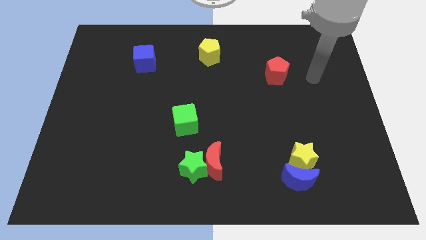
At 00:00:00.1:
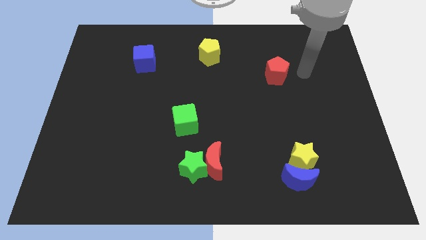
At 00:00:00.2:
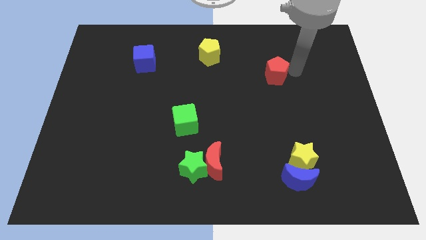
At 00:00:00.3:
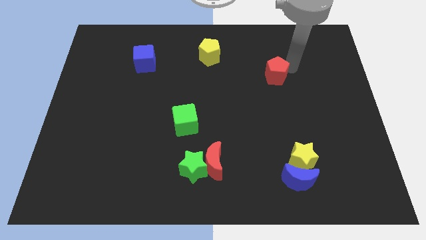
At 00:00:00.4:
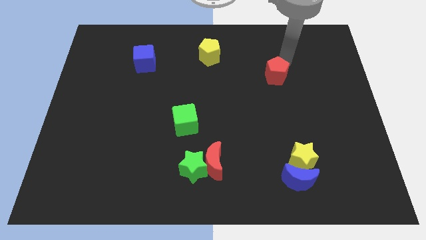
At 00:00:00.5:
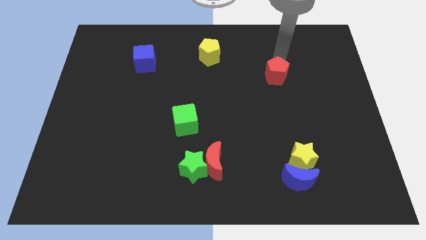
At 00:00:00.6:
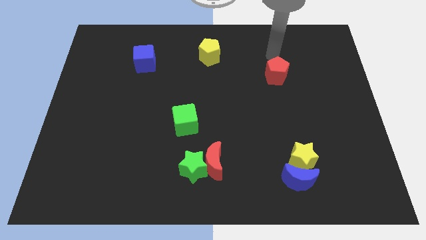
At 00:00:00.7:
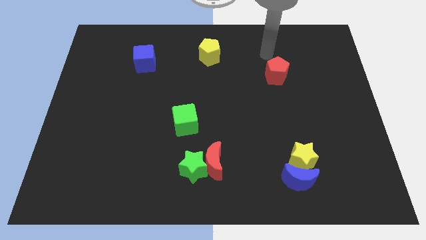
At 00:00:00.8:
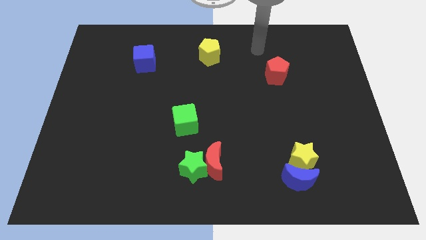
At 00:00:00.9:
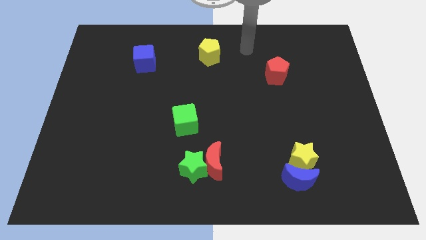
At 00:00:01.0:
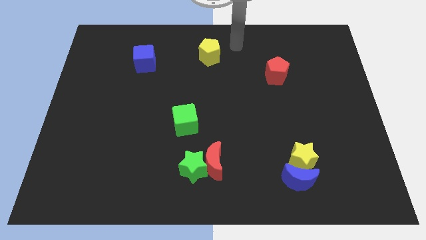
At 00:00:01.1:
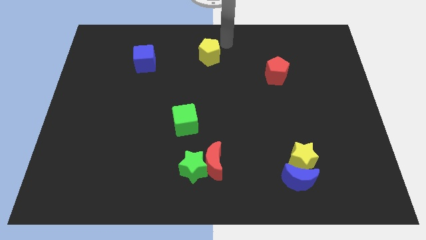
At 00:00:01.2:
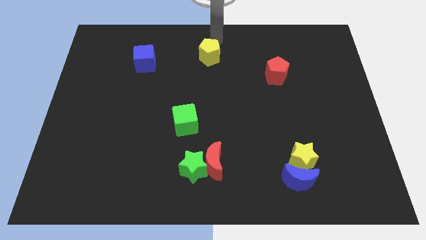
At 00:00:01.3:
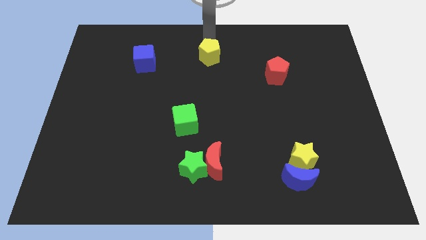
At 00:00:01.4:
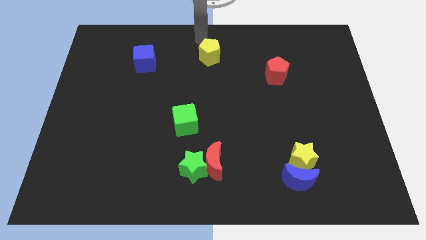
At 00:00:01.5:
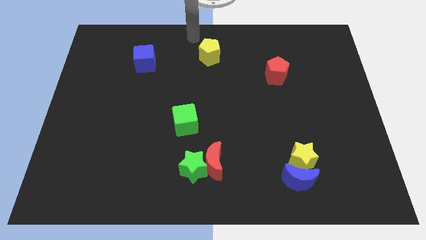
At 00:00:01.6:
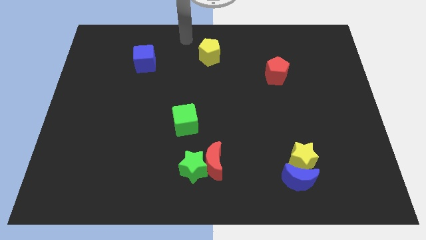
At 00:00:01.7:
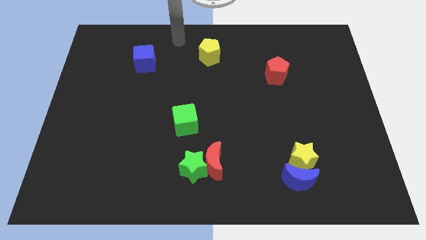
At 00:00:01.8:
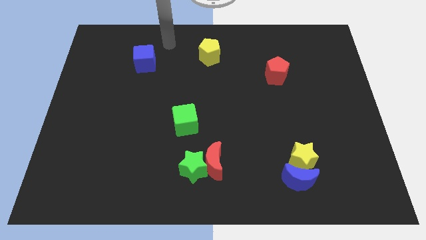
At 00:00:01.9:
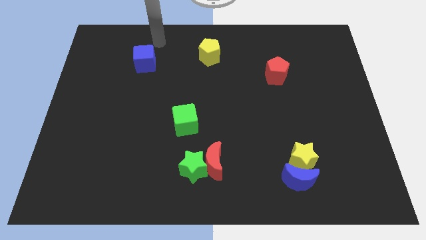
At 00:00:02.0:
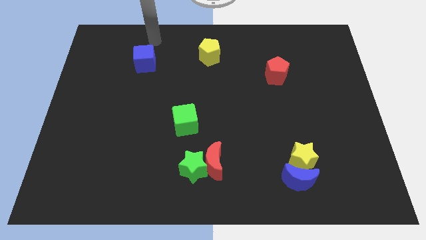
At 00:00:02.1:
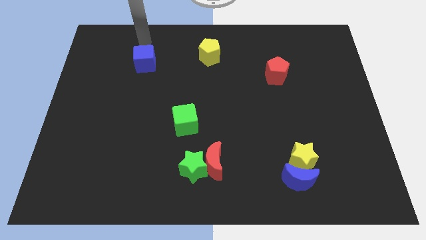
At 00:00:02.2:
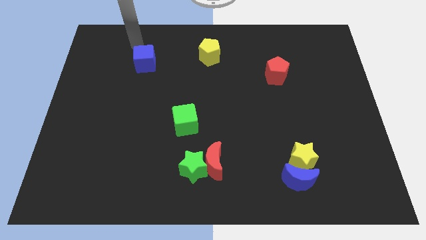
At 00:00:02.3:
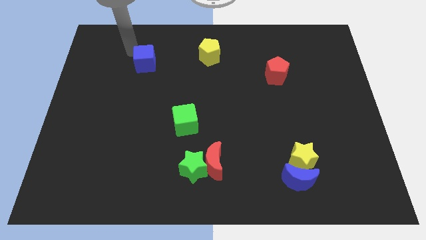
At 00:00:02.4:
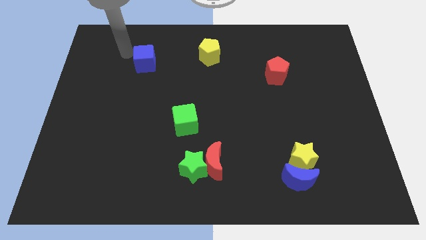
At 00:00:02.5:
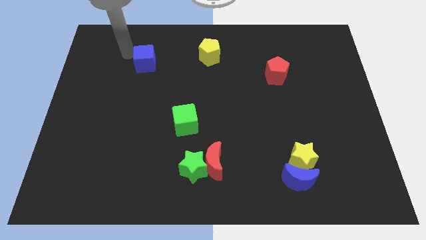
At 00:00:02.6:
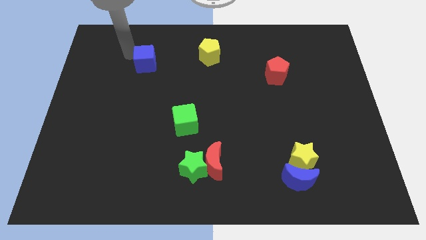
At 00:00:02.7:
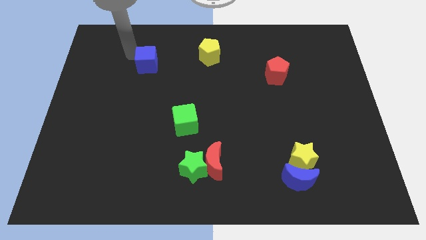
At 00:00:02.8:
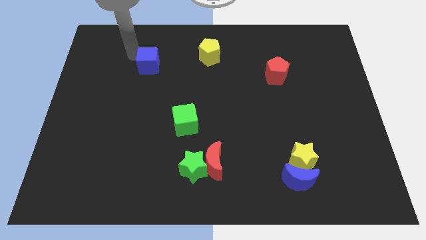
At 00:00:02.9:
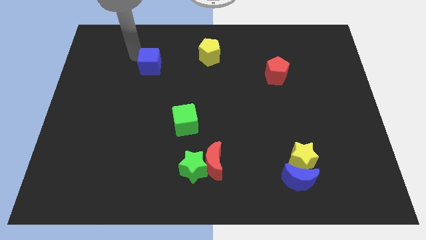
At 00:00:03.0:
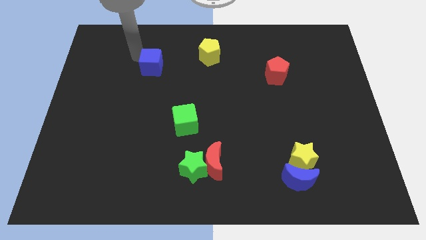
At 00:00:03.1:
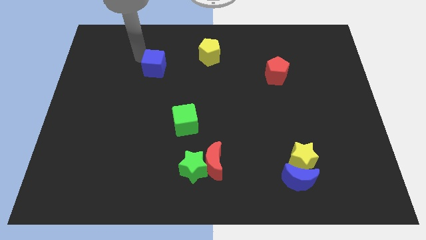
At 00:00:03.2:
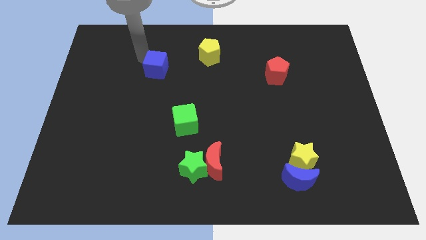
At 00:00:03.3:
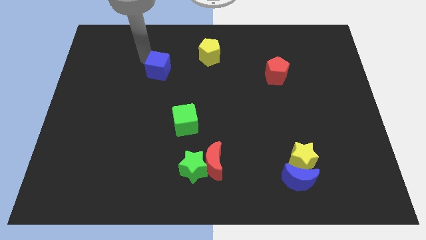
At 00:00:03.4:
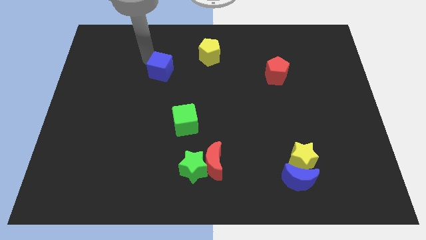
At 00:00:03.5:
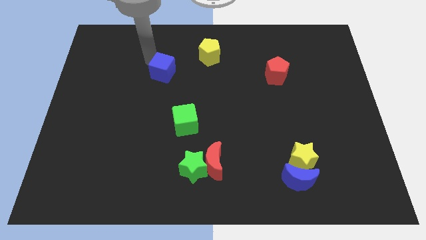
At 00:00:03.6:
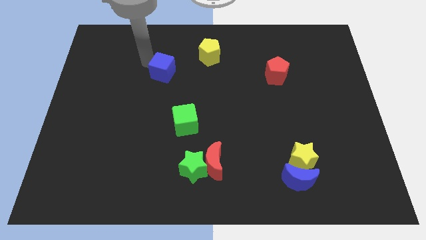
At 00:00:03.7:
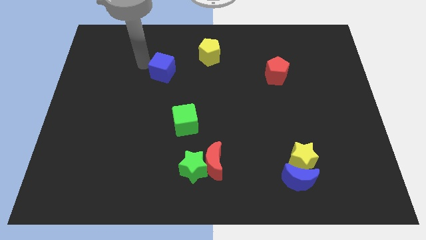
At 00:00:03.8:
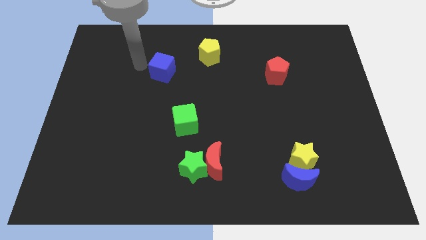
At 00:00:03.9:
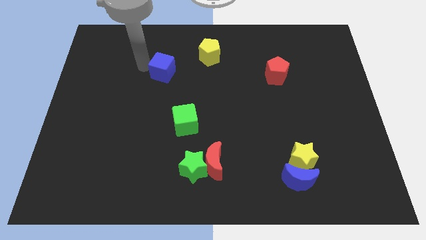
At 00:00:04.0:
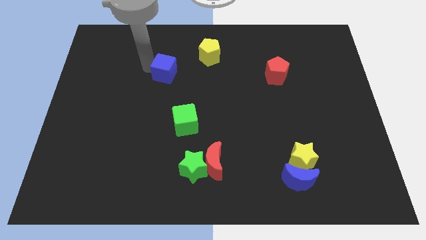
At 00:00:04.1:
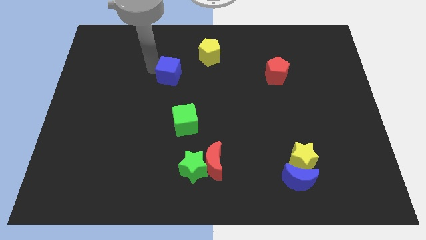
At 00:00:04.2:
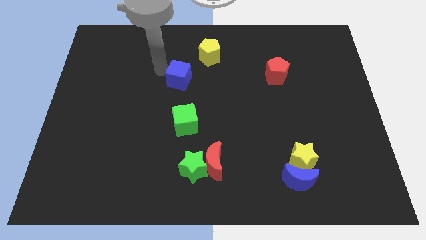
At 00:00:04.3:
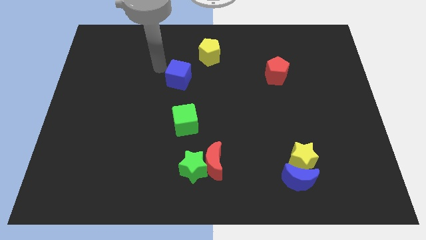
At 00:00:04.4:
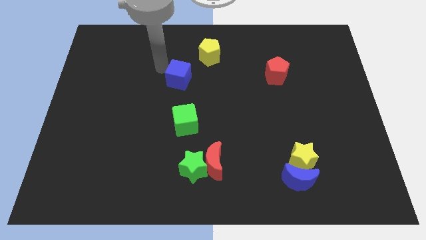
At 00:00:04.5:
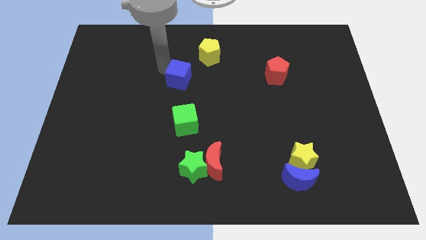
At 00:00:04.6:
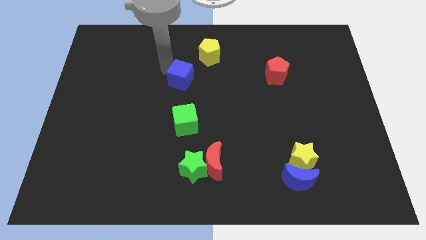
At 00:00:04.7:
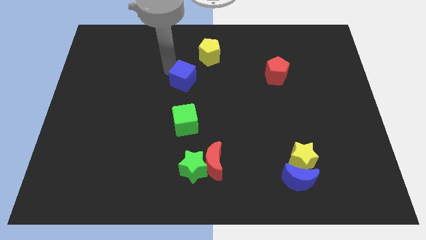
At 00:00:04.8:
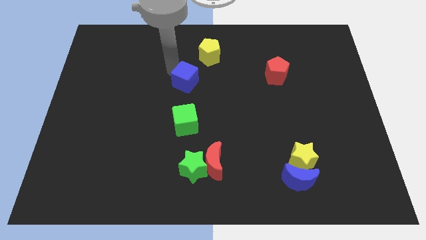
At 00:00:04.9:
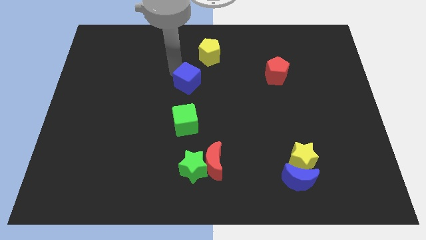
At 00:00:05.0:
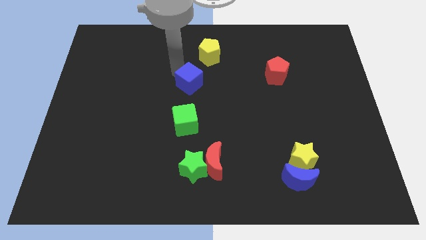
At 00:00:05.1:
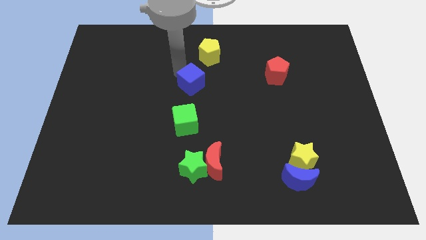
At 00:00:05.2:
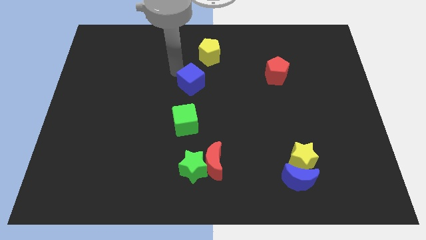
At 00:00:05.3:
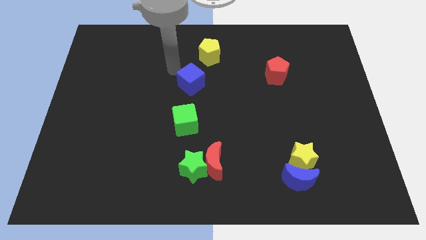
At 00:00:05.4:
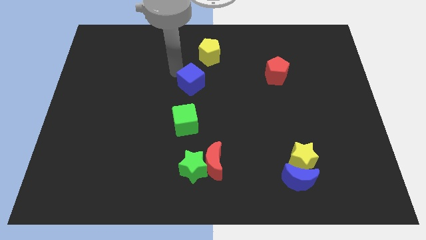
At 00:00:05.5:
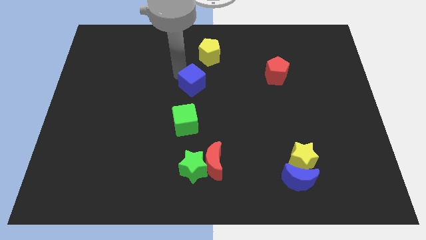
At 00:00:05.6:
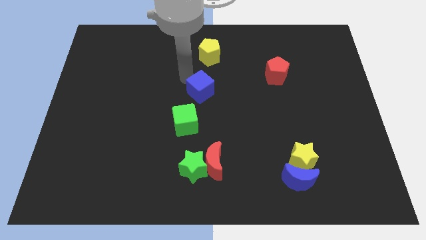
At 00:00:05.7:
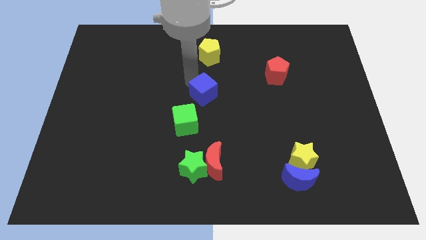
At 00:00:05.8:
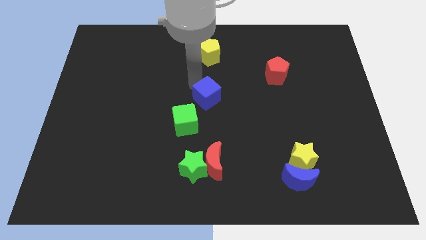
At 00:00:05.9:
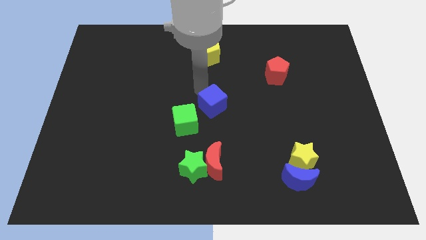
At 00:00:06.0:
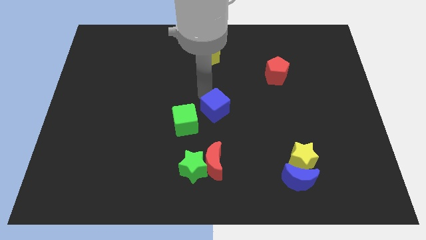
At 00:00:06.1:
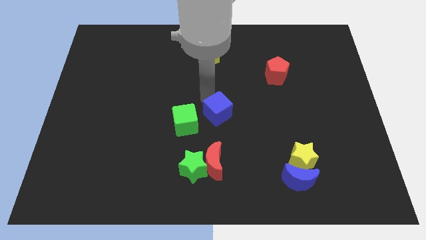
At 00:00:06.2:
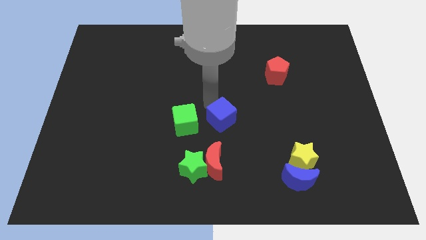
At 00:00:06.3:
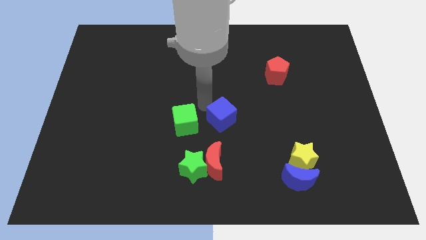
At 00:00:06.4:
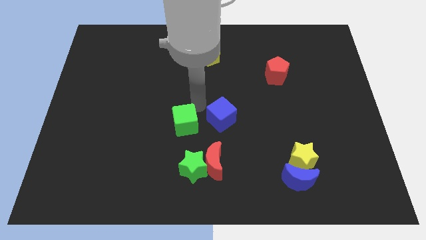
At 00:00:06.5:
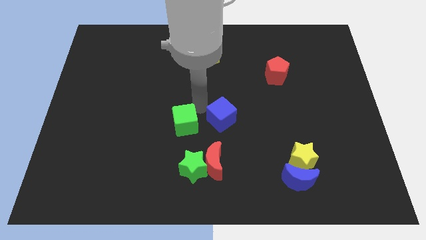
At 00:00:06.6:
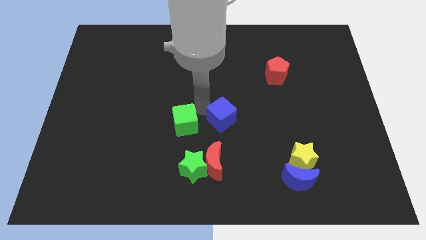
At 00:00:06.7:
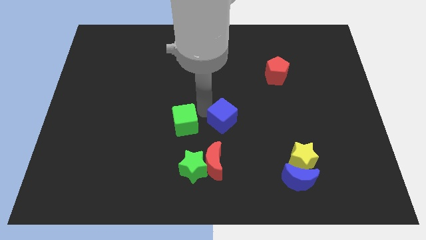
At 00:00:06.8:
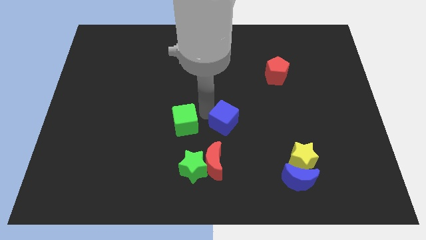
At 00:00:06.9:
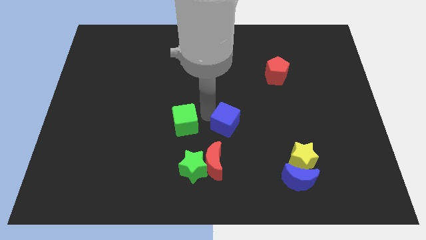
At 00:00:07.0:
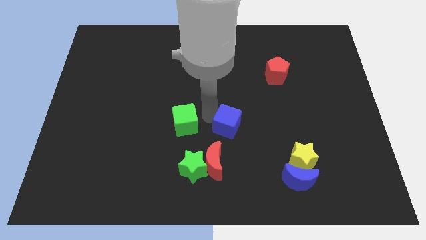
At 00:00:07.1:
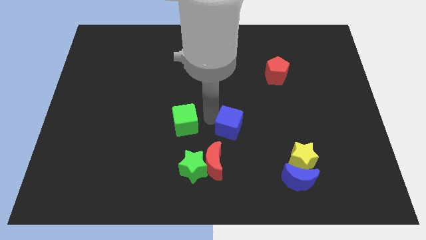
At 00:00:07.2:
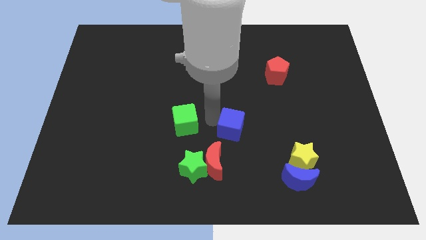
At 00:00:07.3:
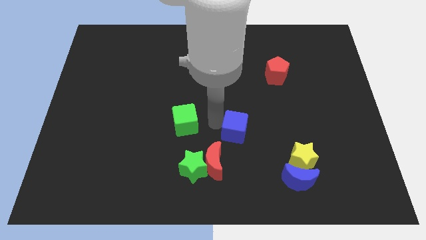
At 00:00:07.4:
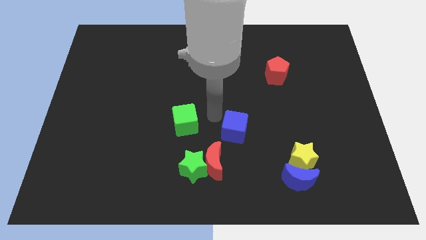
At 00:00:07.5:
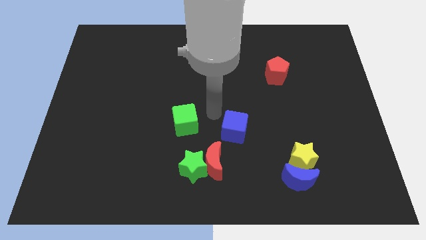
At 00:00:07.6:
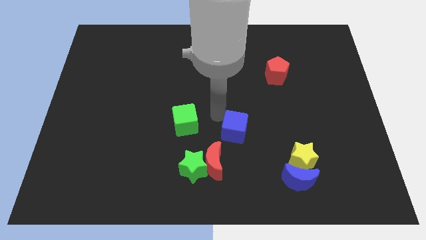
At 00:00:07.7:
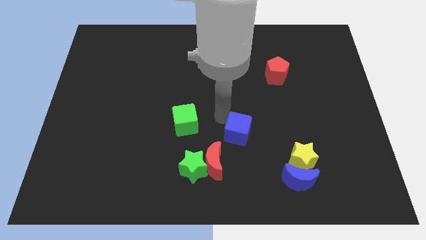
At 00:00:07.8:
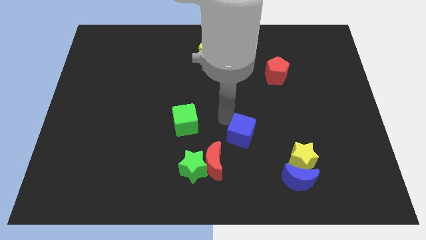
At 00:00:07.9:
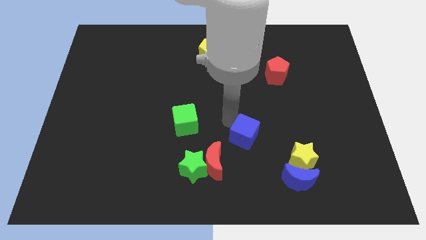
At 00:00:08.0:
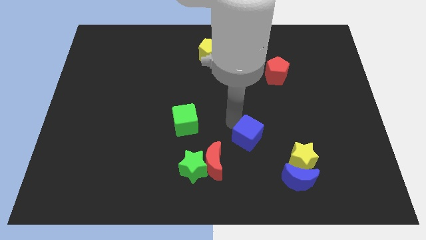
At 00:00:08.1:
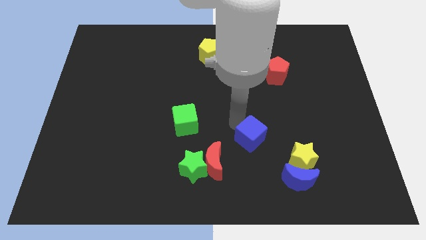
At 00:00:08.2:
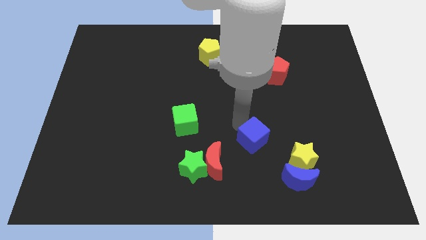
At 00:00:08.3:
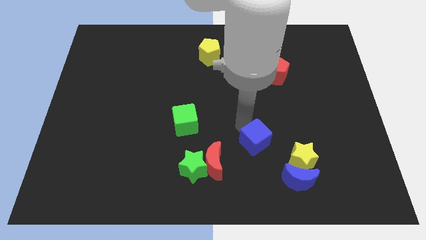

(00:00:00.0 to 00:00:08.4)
slide the blue cube diagonally up and to the left of the blue moon
